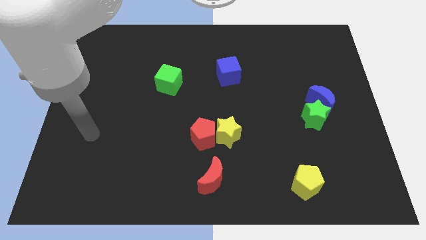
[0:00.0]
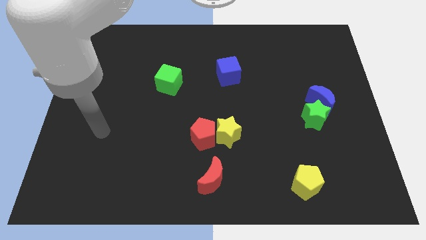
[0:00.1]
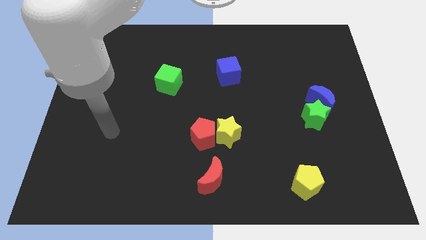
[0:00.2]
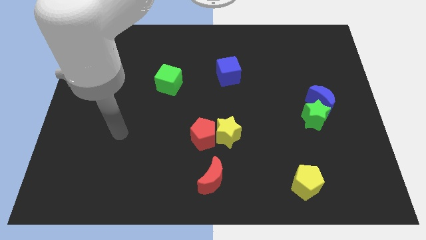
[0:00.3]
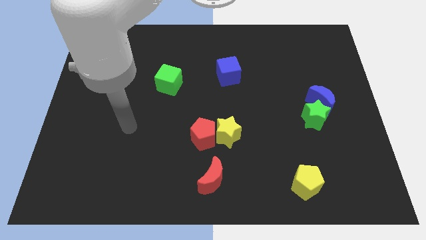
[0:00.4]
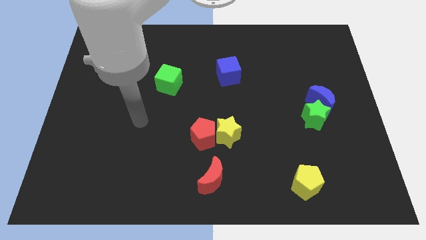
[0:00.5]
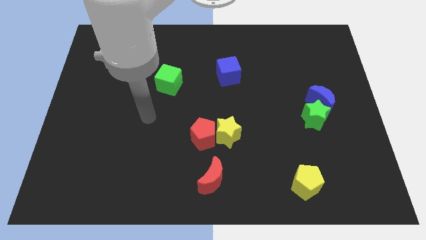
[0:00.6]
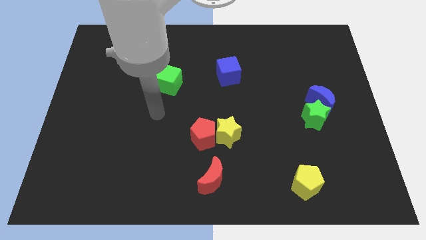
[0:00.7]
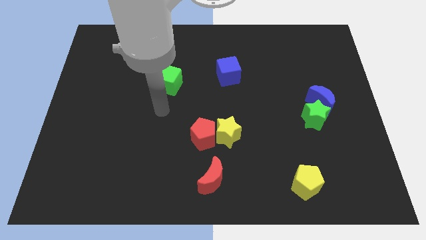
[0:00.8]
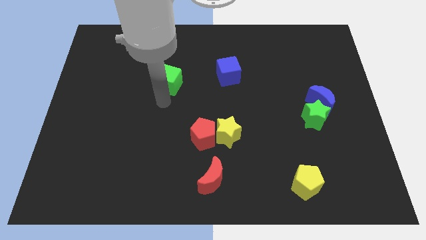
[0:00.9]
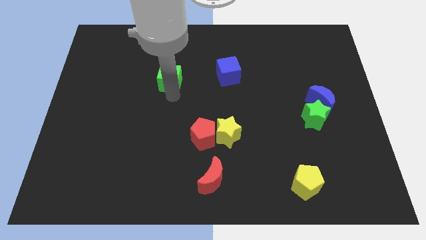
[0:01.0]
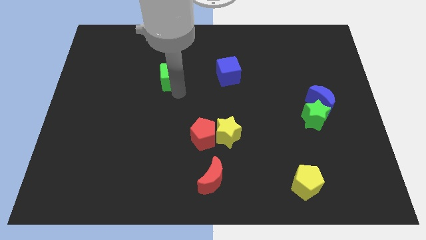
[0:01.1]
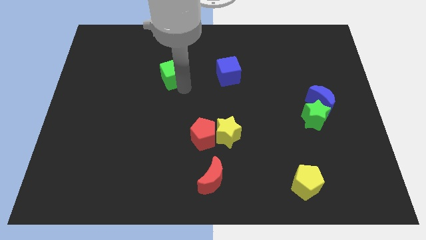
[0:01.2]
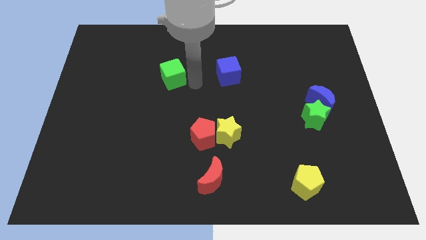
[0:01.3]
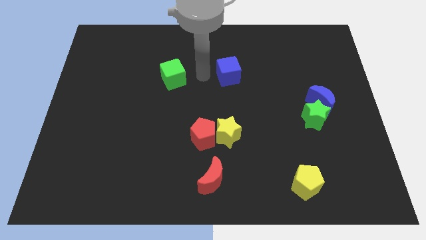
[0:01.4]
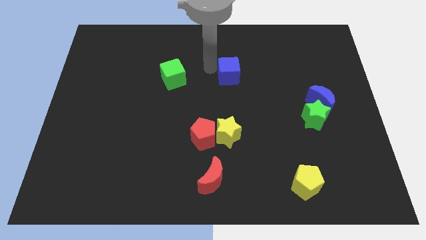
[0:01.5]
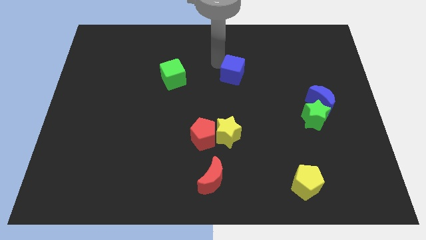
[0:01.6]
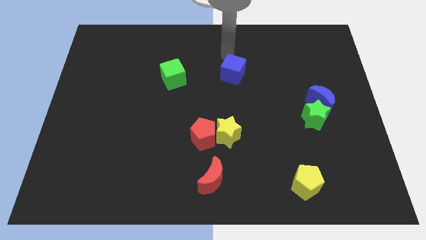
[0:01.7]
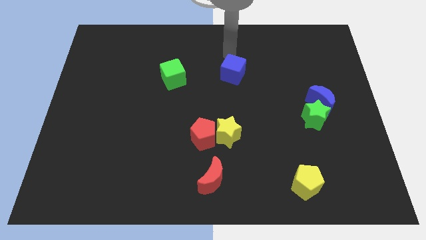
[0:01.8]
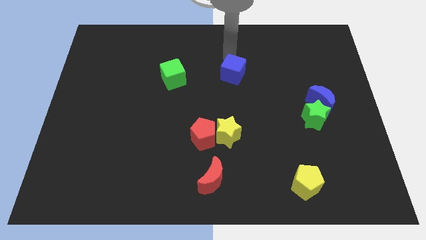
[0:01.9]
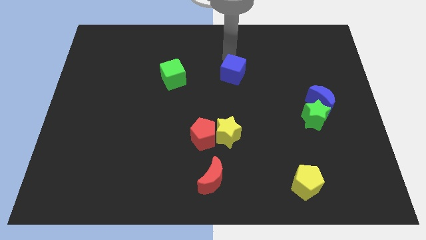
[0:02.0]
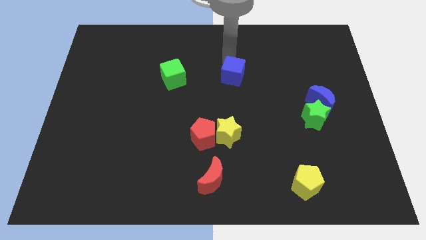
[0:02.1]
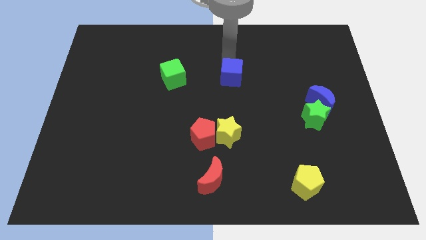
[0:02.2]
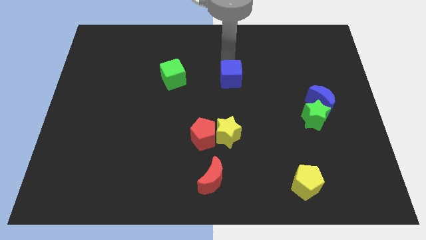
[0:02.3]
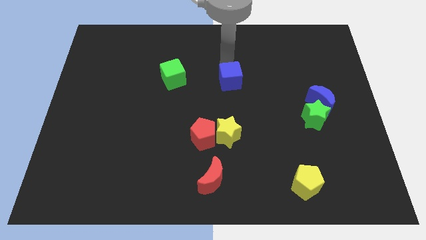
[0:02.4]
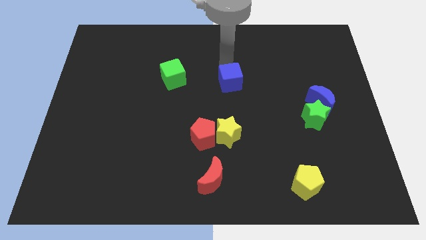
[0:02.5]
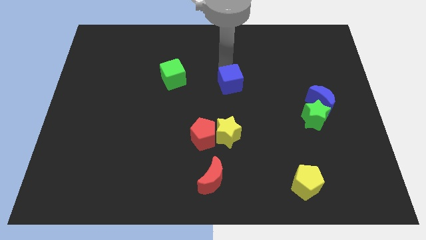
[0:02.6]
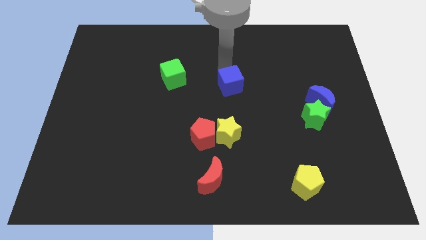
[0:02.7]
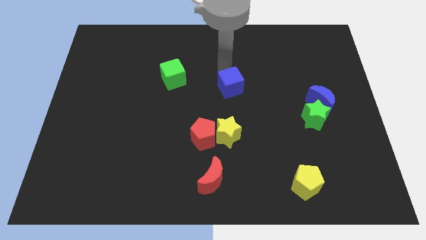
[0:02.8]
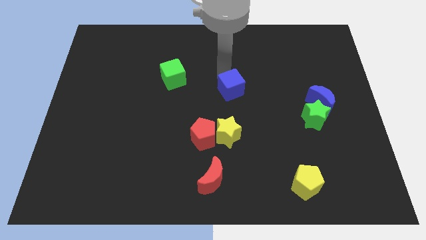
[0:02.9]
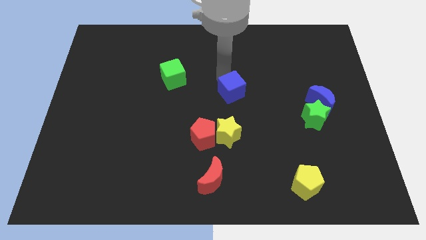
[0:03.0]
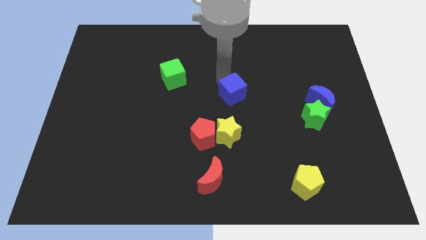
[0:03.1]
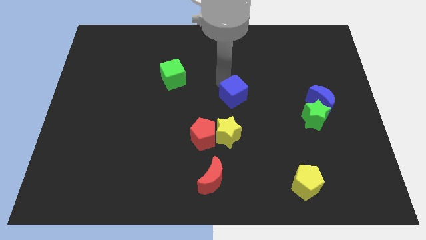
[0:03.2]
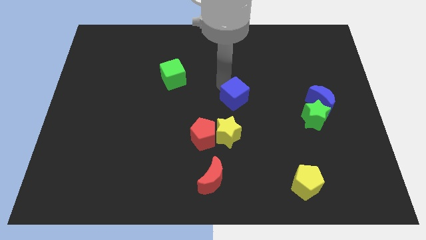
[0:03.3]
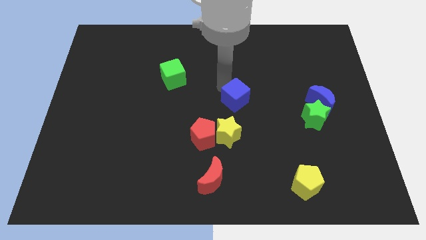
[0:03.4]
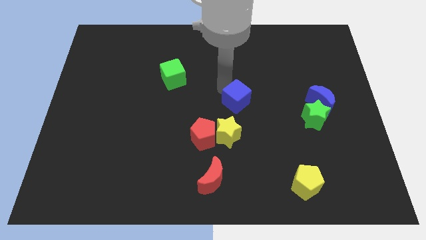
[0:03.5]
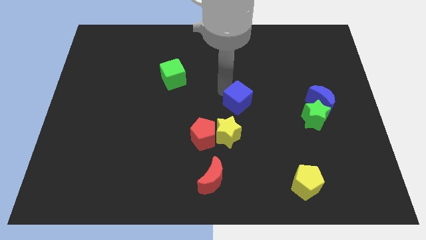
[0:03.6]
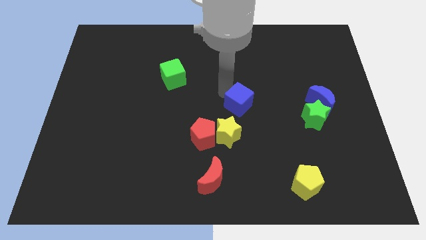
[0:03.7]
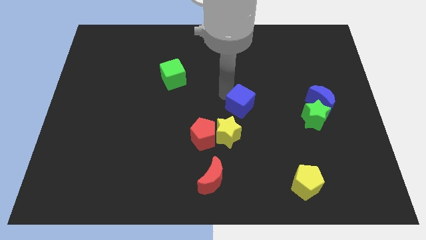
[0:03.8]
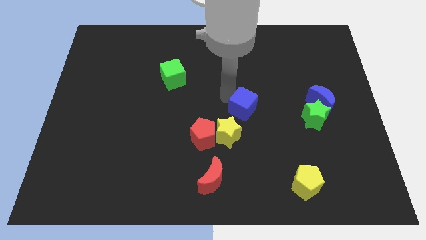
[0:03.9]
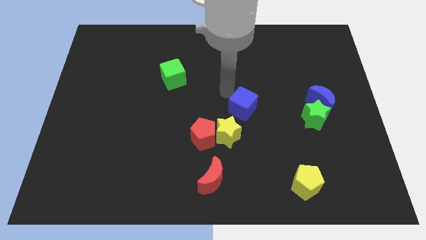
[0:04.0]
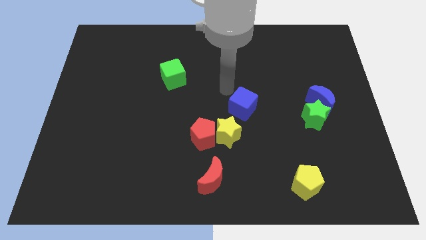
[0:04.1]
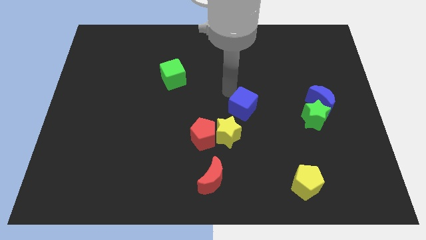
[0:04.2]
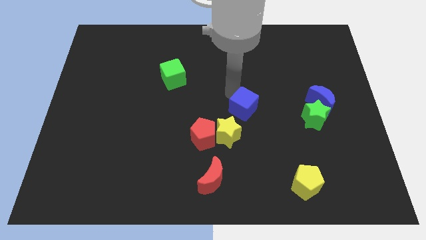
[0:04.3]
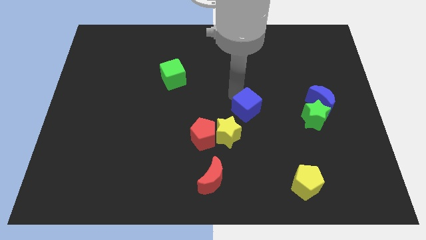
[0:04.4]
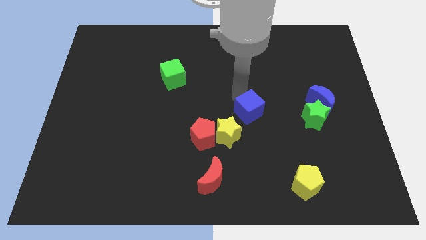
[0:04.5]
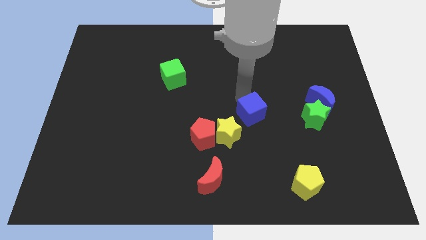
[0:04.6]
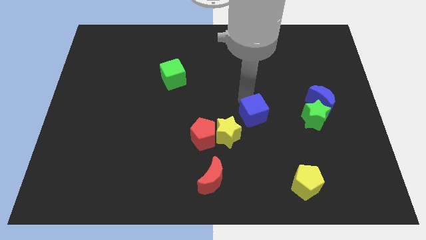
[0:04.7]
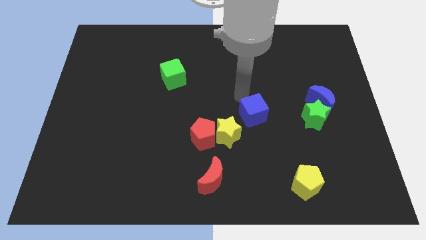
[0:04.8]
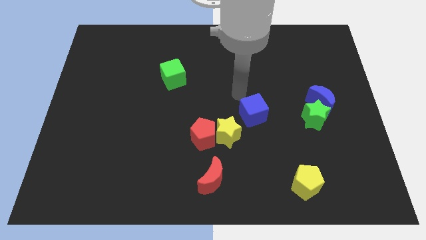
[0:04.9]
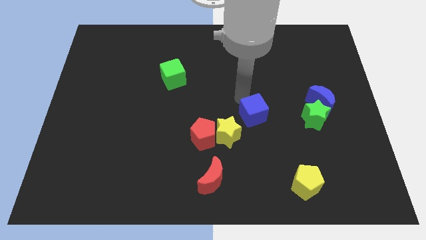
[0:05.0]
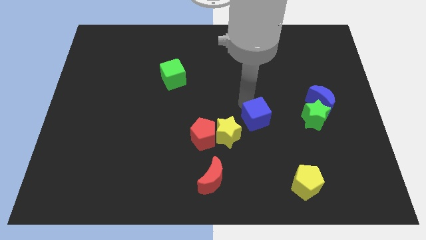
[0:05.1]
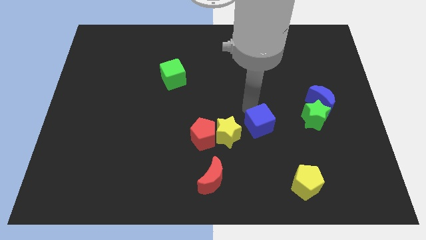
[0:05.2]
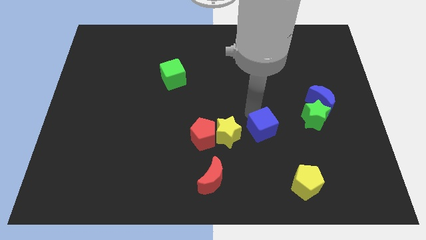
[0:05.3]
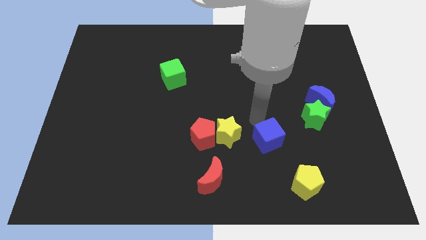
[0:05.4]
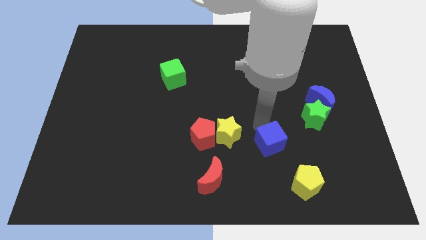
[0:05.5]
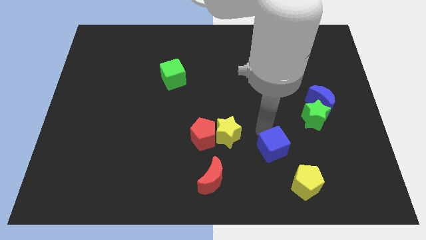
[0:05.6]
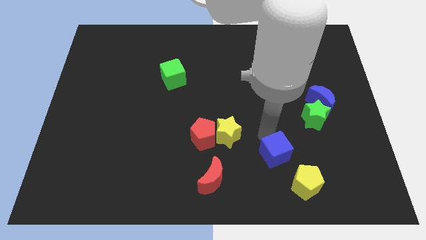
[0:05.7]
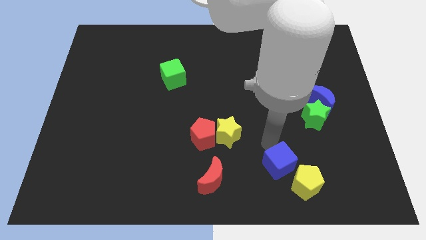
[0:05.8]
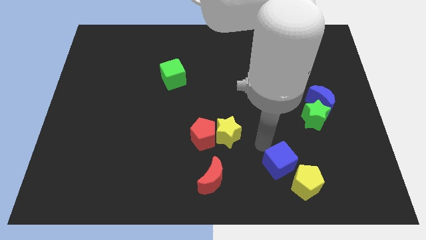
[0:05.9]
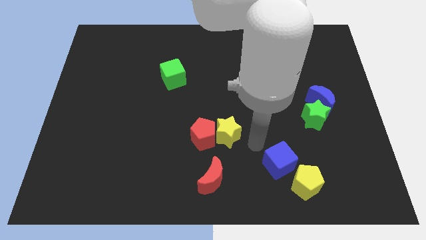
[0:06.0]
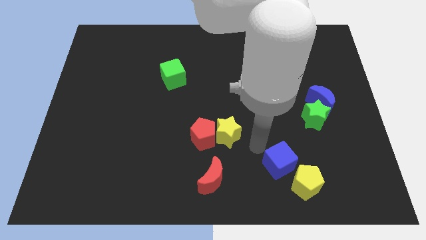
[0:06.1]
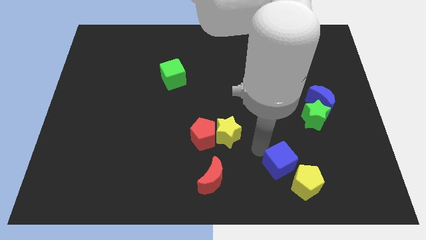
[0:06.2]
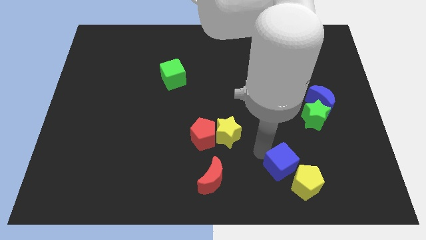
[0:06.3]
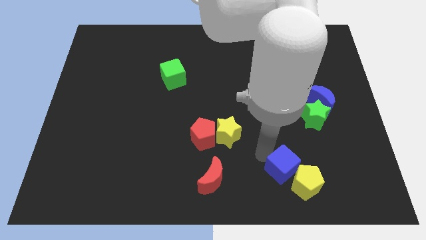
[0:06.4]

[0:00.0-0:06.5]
put the blue cube close to the yellow pentagon
